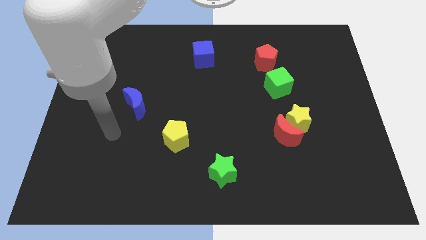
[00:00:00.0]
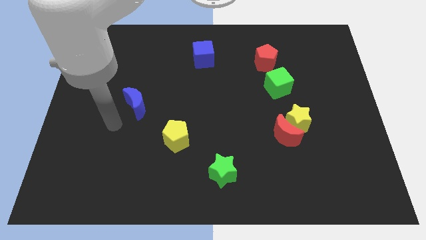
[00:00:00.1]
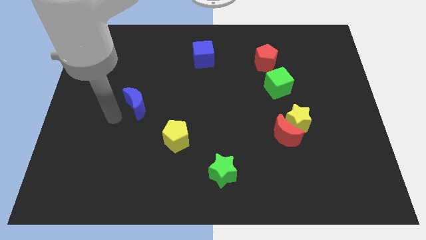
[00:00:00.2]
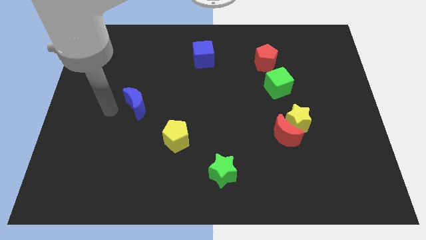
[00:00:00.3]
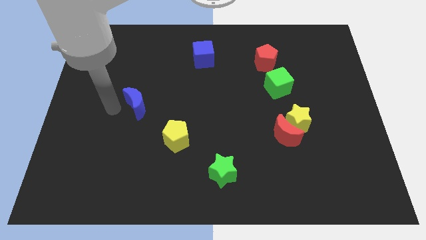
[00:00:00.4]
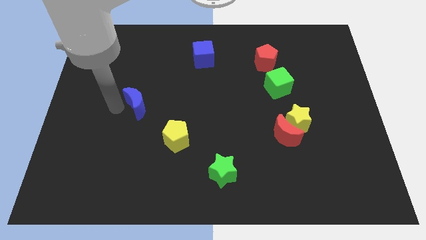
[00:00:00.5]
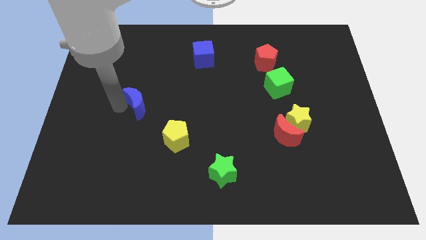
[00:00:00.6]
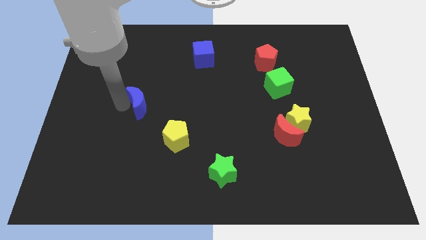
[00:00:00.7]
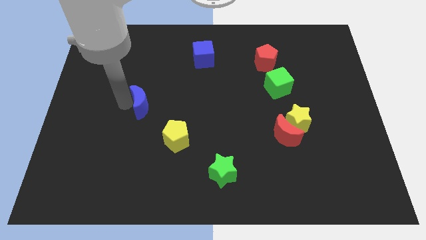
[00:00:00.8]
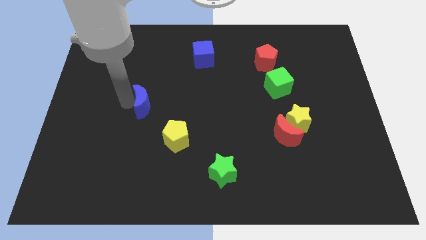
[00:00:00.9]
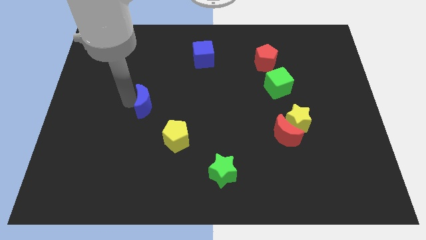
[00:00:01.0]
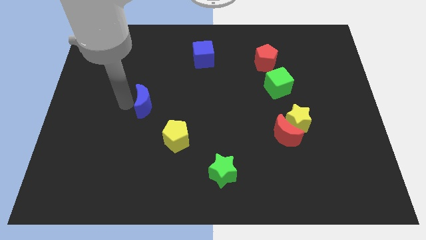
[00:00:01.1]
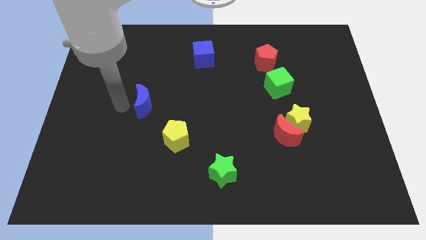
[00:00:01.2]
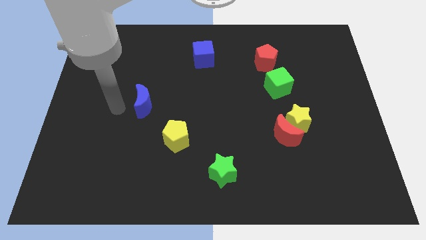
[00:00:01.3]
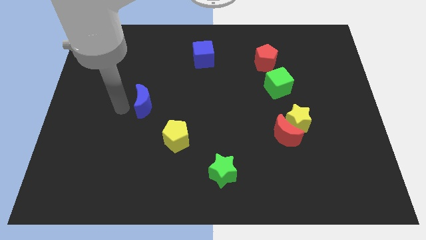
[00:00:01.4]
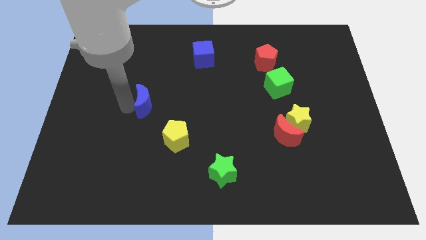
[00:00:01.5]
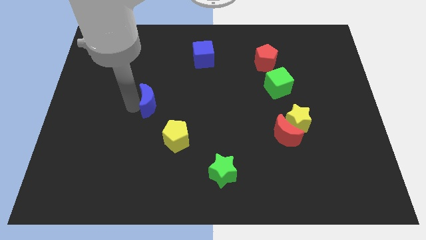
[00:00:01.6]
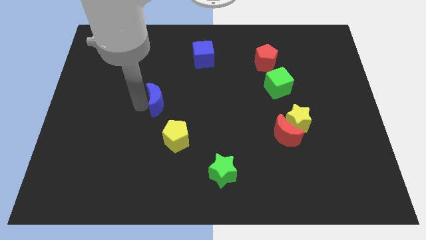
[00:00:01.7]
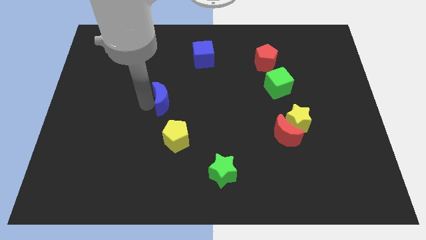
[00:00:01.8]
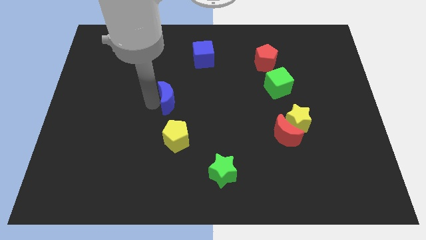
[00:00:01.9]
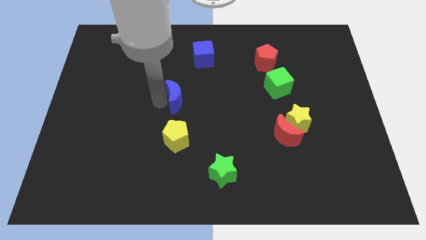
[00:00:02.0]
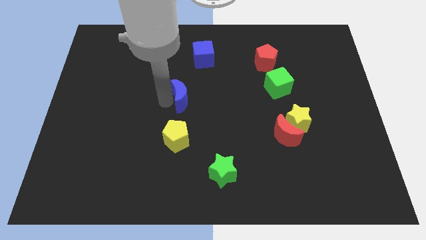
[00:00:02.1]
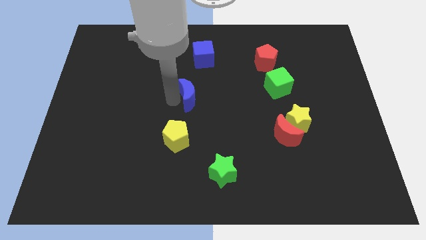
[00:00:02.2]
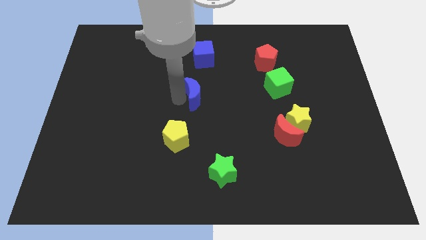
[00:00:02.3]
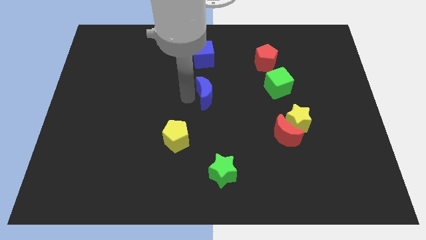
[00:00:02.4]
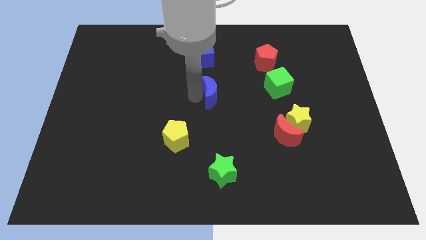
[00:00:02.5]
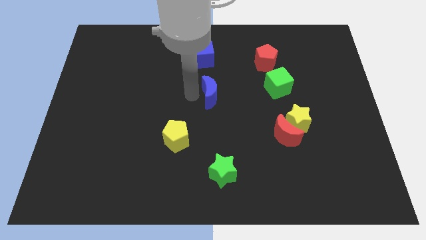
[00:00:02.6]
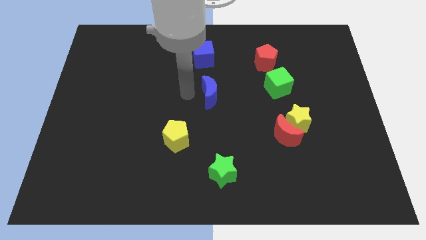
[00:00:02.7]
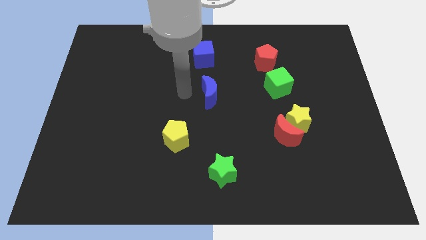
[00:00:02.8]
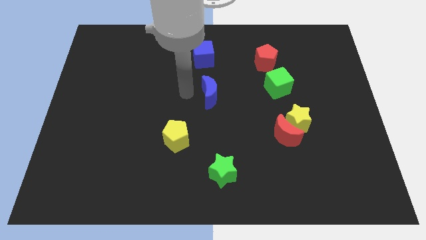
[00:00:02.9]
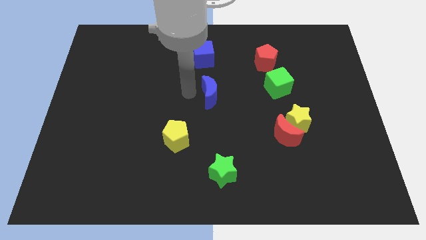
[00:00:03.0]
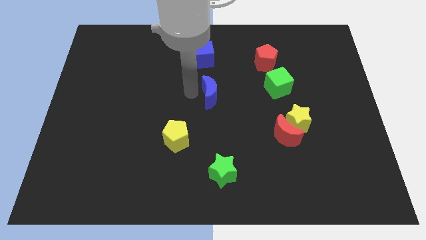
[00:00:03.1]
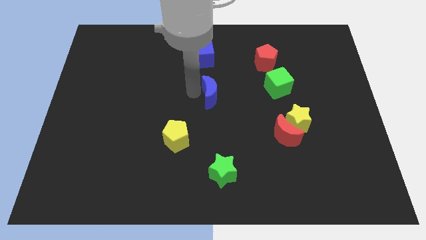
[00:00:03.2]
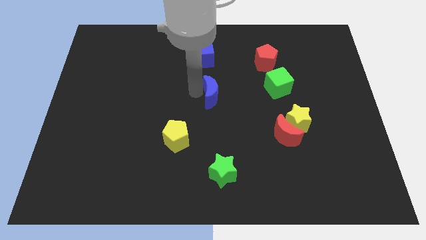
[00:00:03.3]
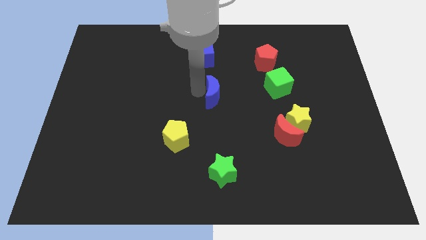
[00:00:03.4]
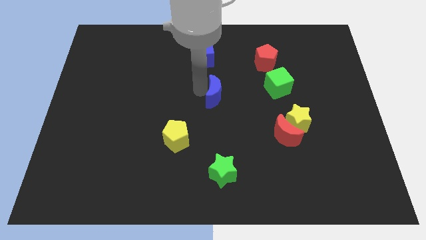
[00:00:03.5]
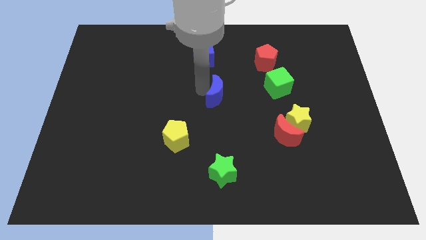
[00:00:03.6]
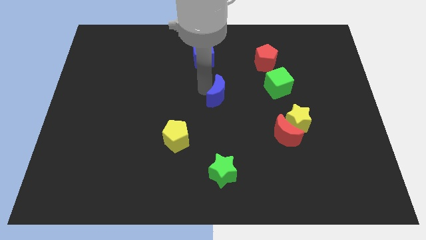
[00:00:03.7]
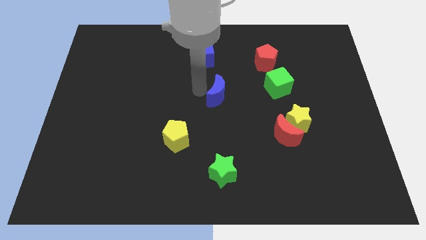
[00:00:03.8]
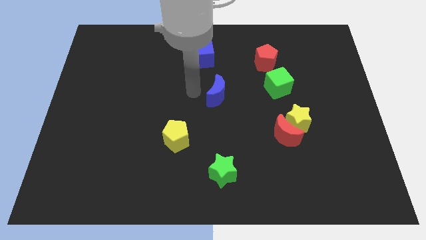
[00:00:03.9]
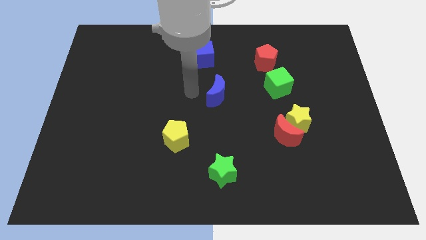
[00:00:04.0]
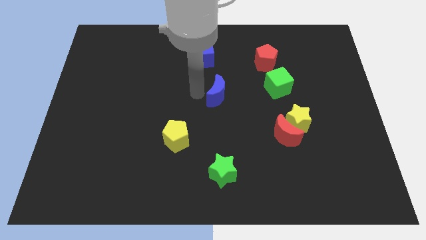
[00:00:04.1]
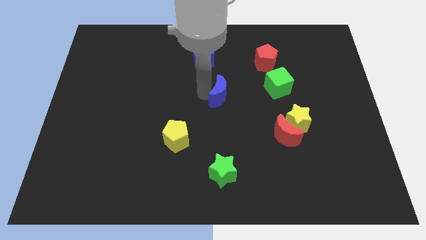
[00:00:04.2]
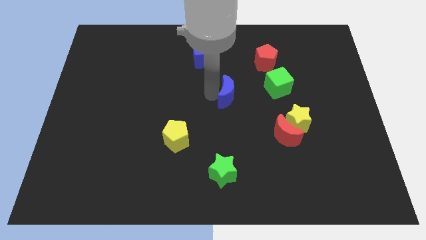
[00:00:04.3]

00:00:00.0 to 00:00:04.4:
move the blue moon right

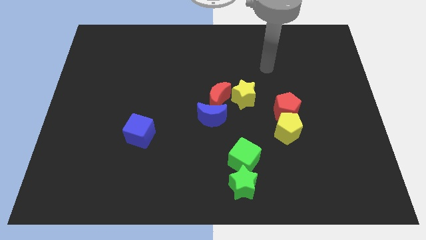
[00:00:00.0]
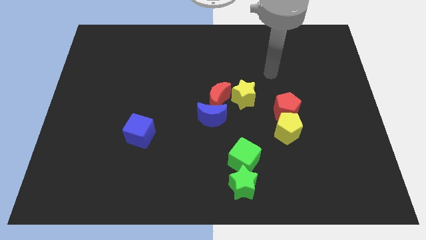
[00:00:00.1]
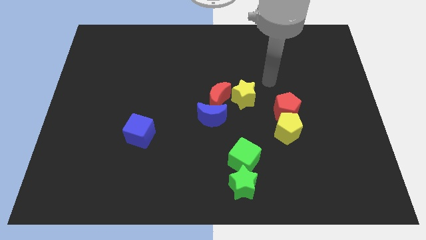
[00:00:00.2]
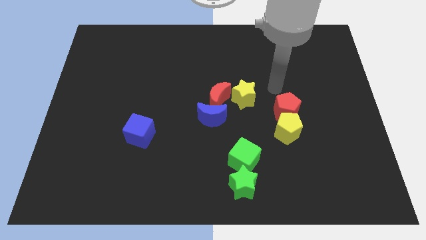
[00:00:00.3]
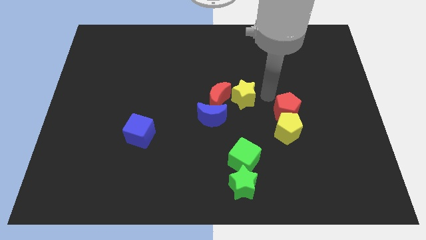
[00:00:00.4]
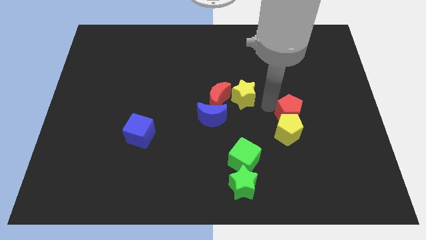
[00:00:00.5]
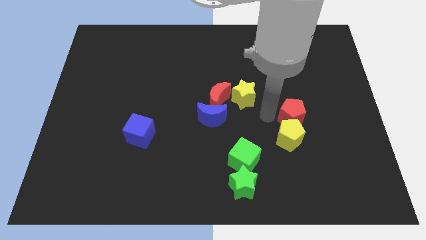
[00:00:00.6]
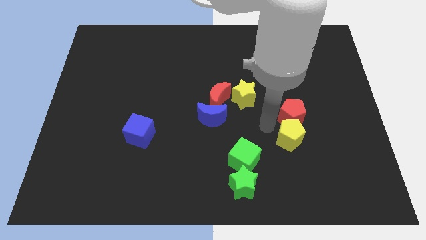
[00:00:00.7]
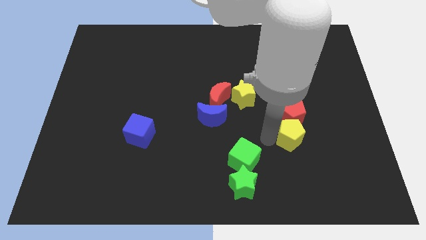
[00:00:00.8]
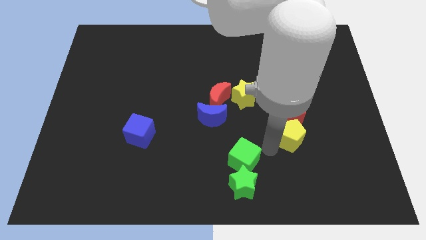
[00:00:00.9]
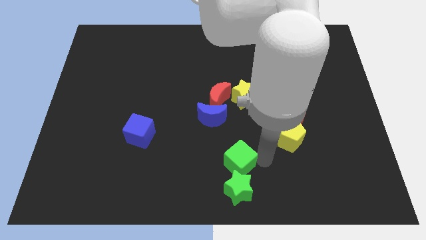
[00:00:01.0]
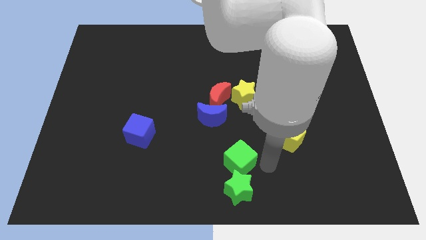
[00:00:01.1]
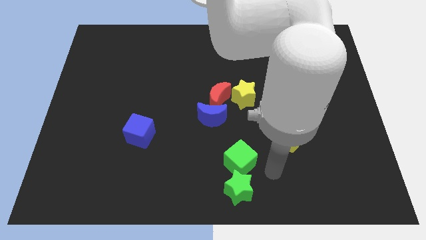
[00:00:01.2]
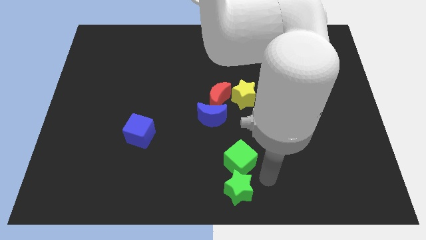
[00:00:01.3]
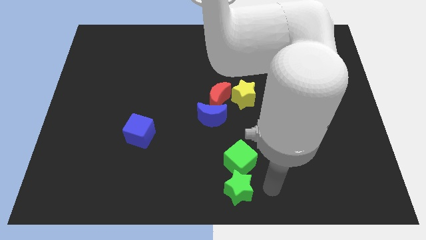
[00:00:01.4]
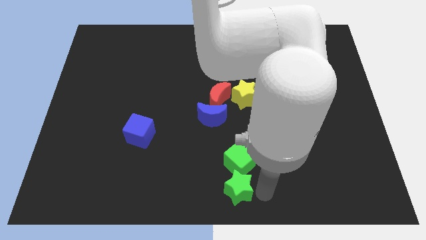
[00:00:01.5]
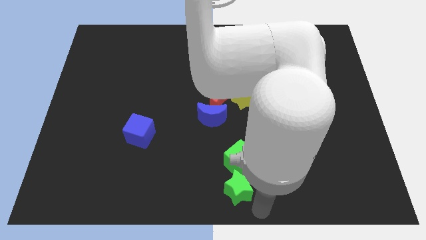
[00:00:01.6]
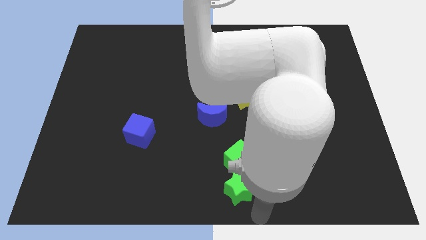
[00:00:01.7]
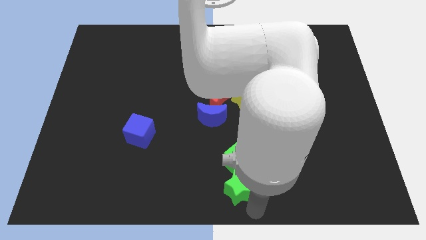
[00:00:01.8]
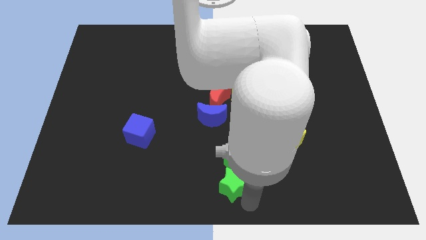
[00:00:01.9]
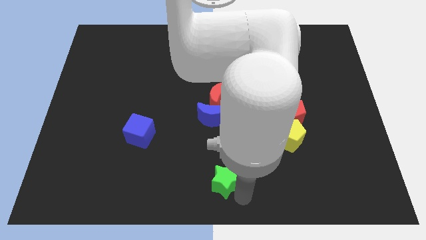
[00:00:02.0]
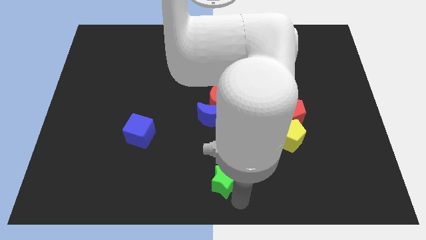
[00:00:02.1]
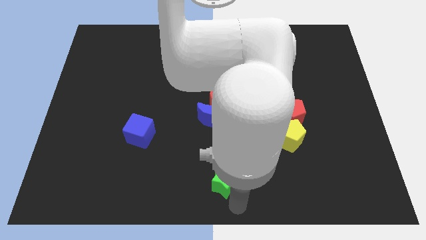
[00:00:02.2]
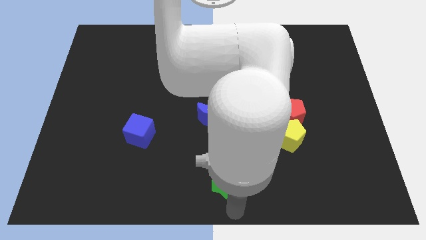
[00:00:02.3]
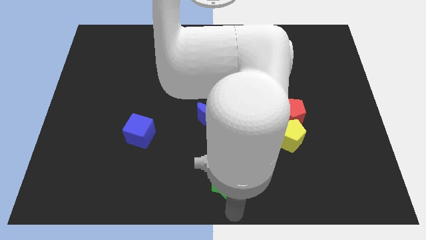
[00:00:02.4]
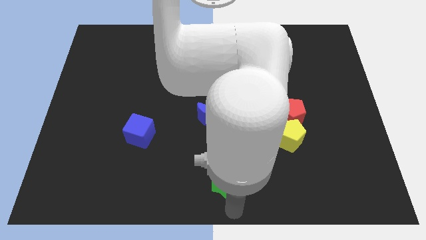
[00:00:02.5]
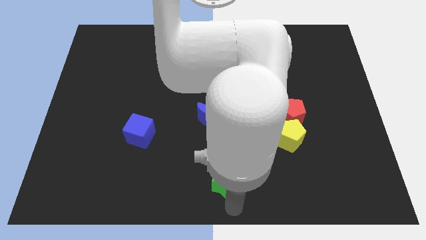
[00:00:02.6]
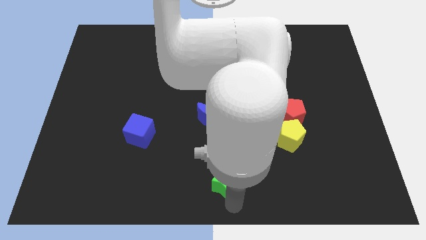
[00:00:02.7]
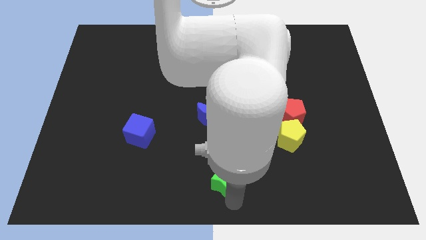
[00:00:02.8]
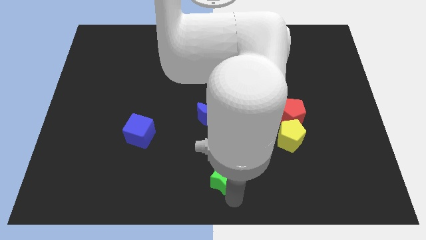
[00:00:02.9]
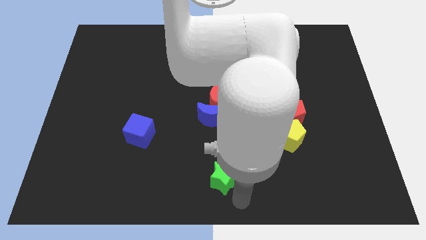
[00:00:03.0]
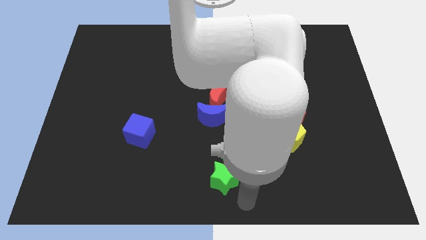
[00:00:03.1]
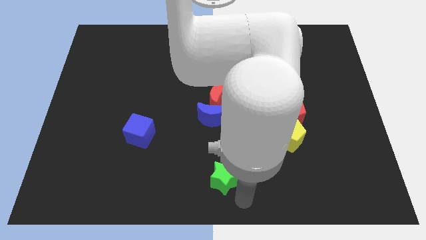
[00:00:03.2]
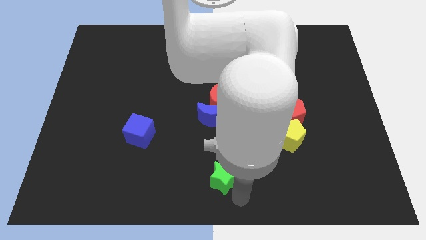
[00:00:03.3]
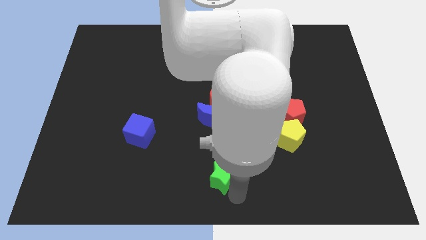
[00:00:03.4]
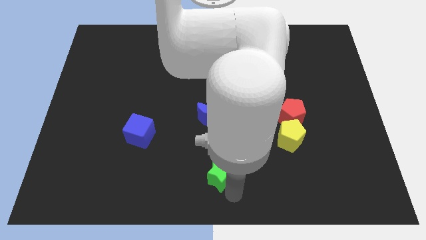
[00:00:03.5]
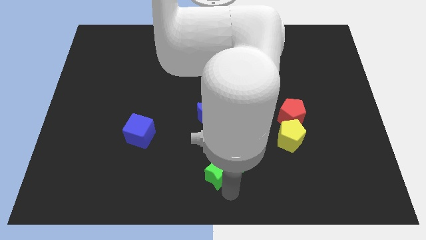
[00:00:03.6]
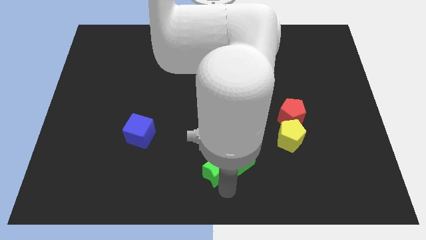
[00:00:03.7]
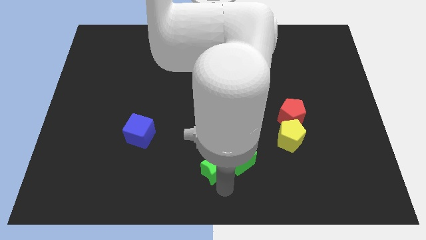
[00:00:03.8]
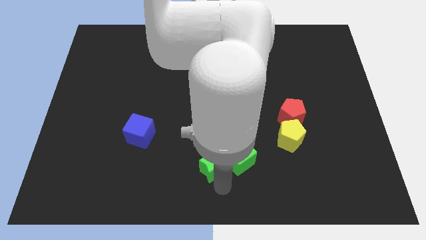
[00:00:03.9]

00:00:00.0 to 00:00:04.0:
move the green star slightly diagonally up and to the left
